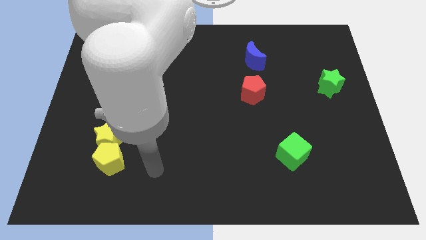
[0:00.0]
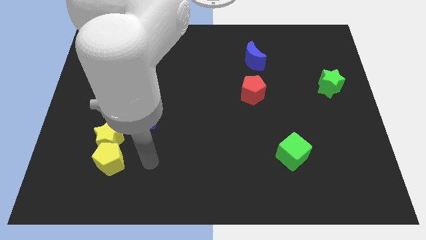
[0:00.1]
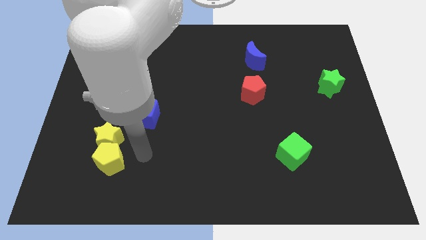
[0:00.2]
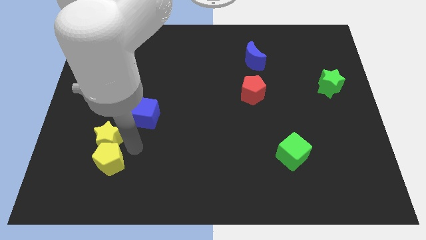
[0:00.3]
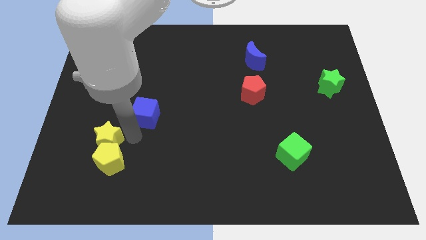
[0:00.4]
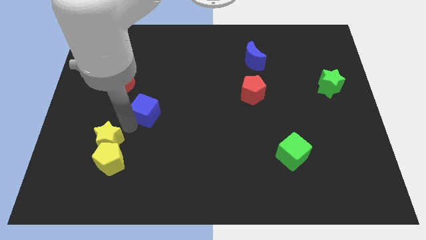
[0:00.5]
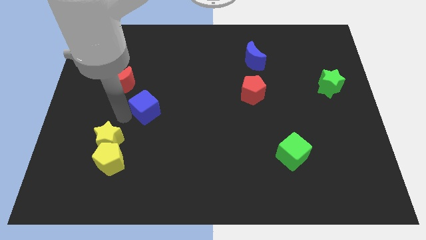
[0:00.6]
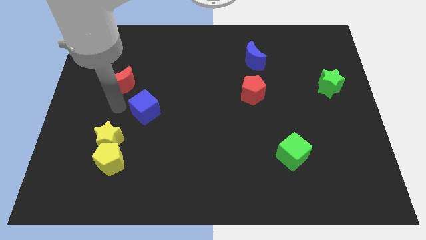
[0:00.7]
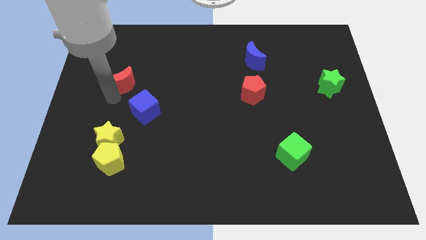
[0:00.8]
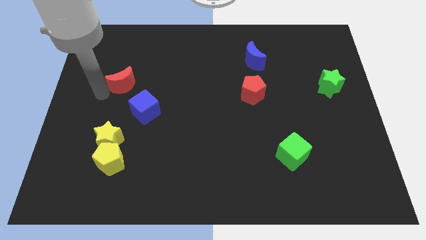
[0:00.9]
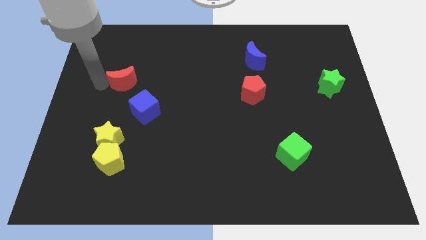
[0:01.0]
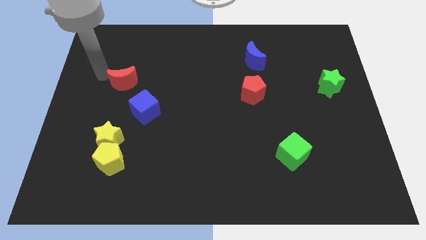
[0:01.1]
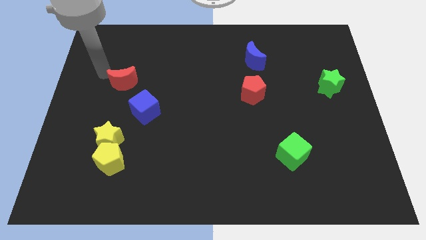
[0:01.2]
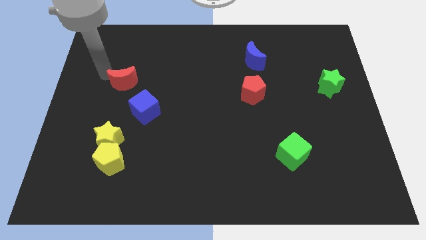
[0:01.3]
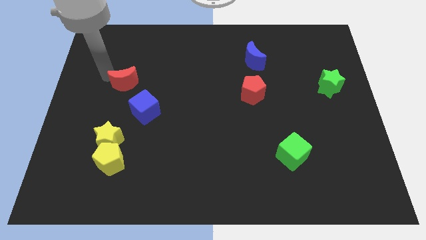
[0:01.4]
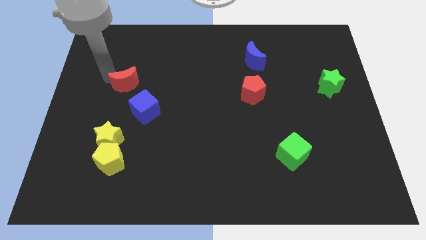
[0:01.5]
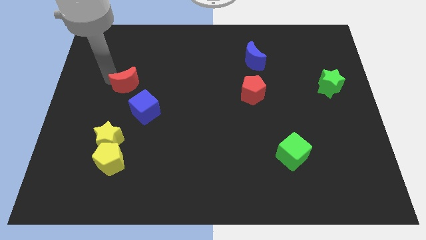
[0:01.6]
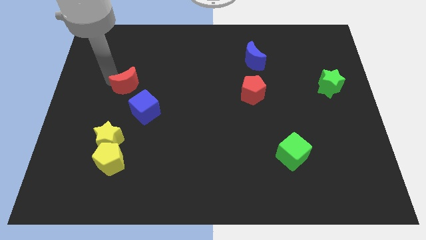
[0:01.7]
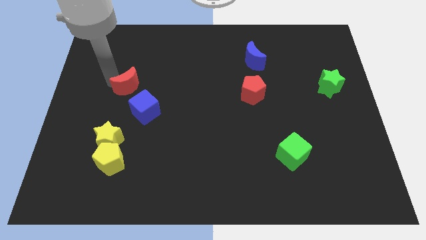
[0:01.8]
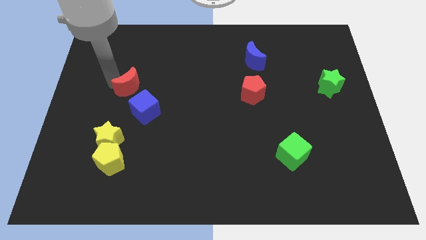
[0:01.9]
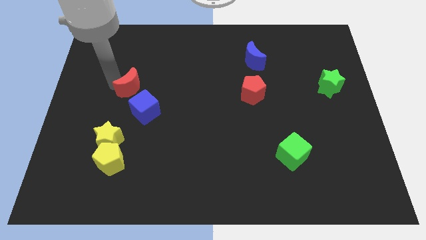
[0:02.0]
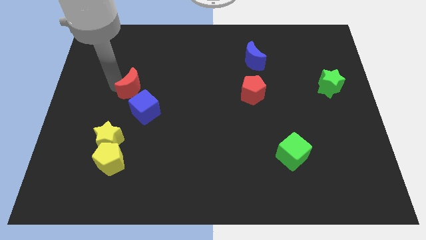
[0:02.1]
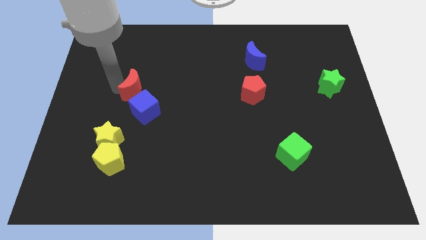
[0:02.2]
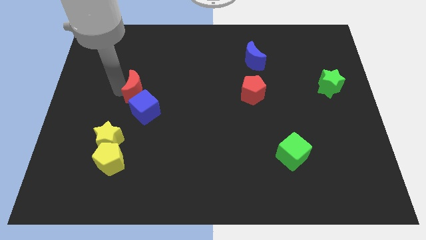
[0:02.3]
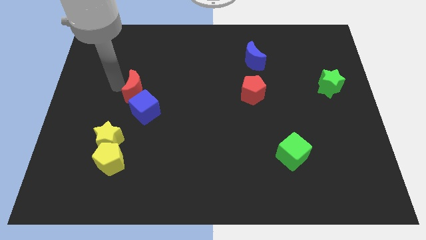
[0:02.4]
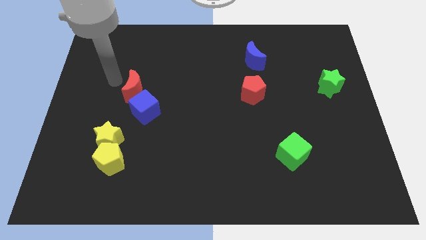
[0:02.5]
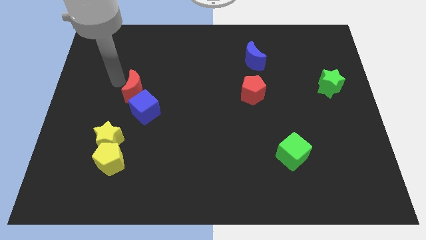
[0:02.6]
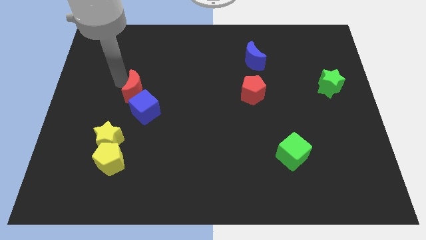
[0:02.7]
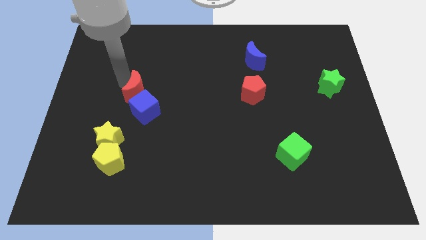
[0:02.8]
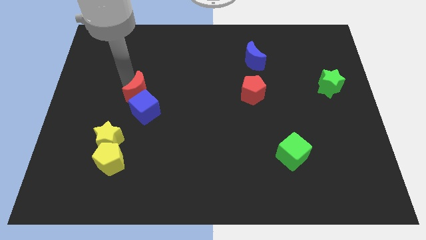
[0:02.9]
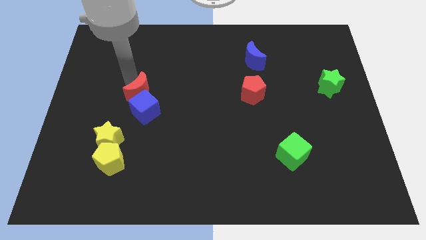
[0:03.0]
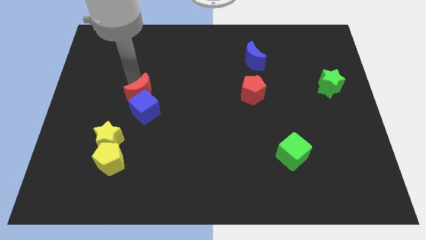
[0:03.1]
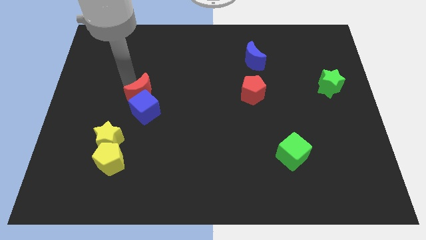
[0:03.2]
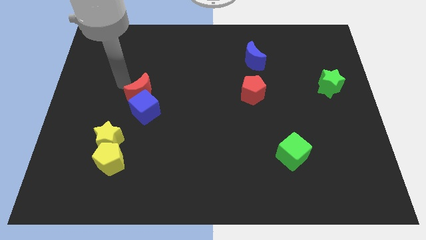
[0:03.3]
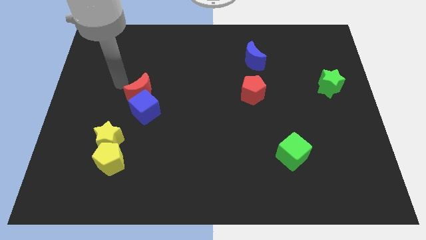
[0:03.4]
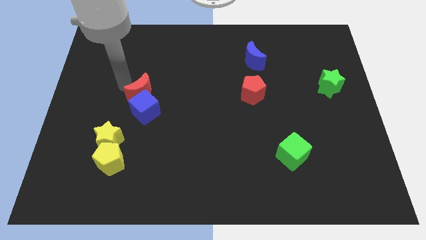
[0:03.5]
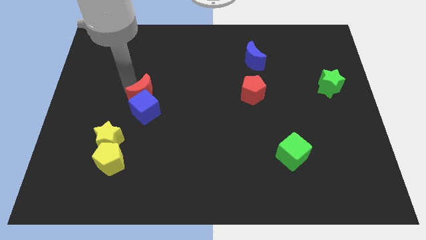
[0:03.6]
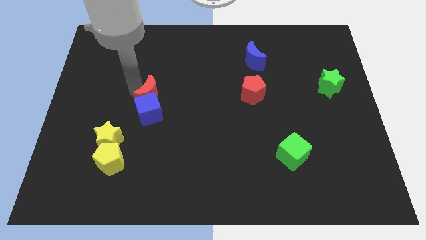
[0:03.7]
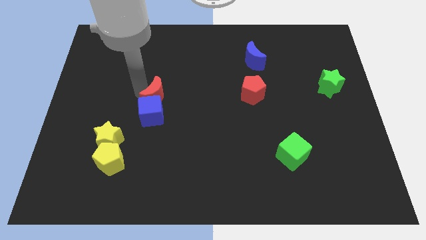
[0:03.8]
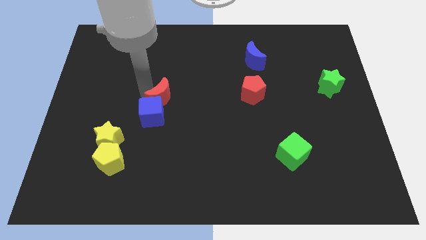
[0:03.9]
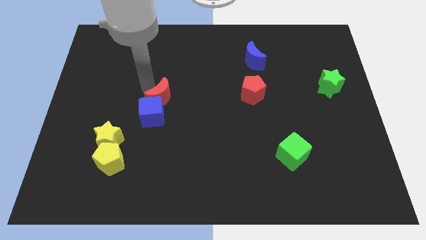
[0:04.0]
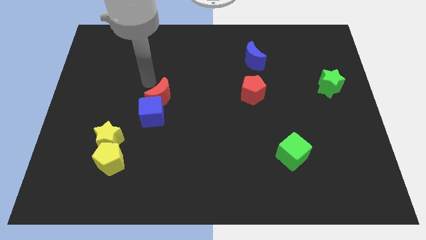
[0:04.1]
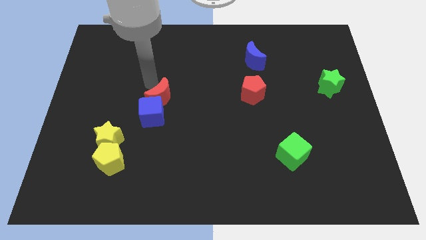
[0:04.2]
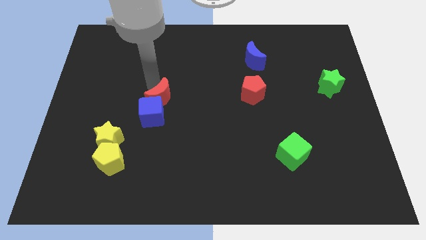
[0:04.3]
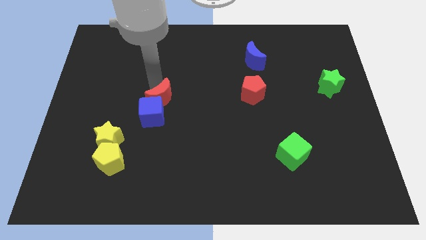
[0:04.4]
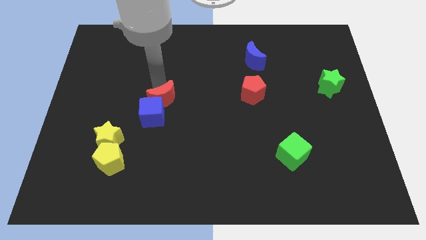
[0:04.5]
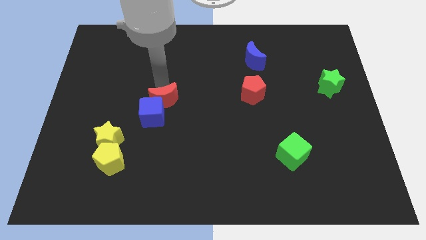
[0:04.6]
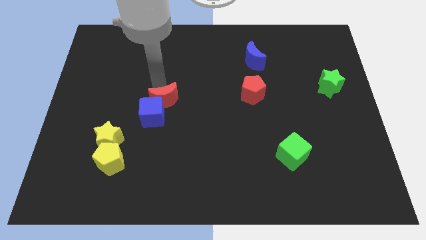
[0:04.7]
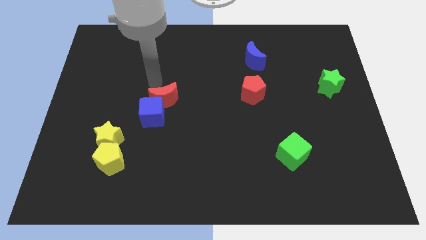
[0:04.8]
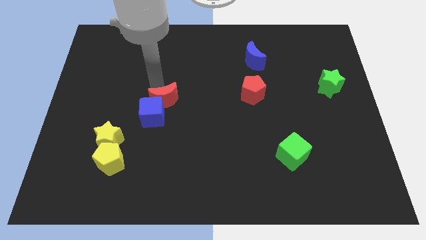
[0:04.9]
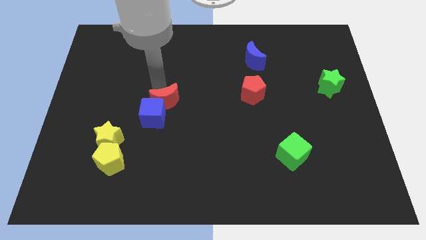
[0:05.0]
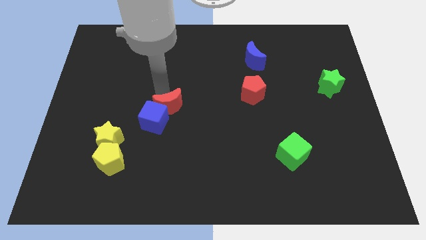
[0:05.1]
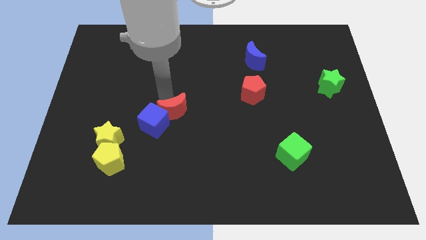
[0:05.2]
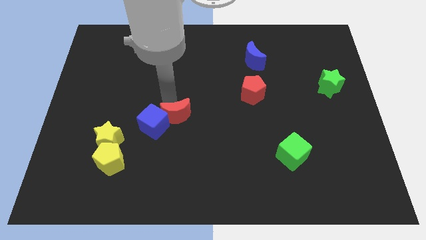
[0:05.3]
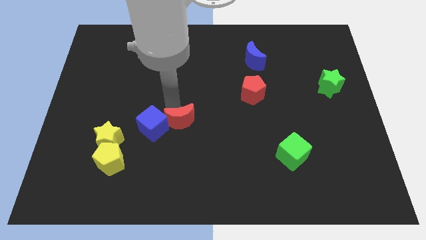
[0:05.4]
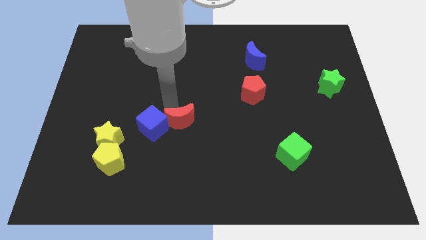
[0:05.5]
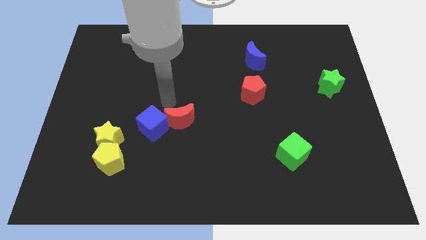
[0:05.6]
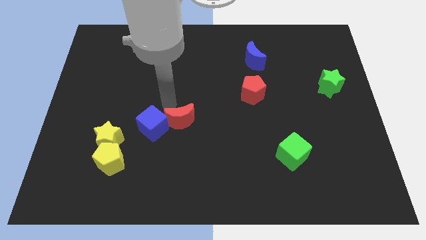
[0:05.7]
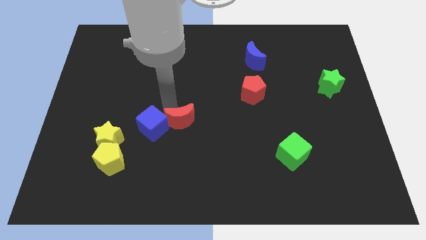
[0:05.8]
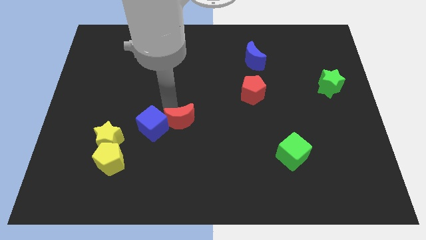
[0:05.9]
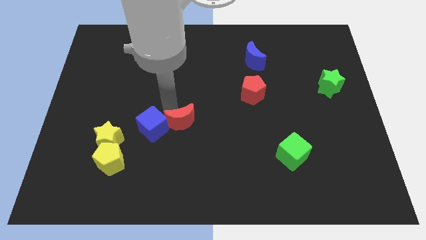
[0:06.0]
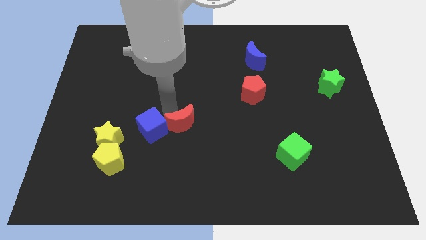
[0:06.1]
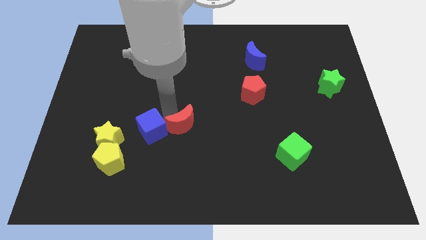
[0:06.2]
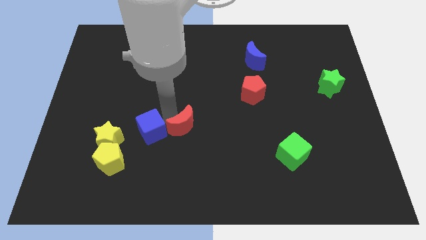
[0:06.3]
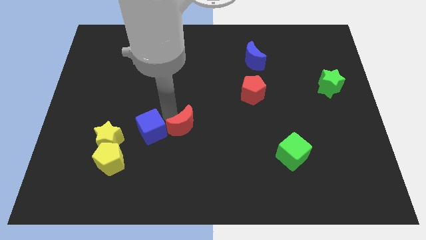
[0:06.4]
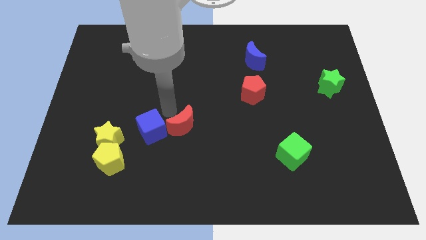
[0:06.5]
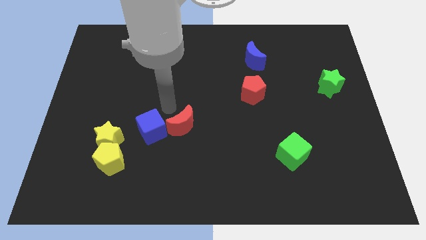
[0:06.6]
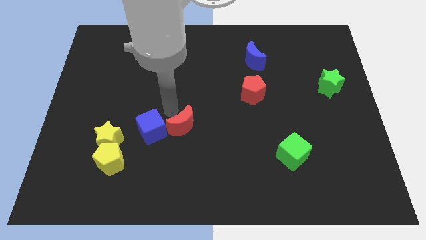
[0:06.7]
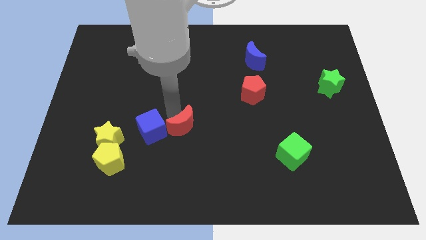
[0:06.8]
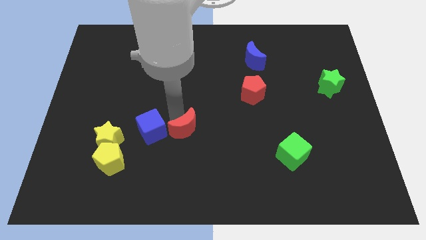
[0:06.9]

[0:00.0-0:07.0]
move the red moon diagonally down and to the right

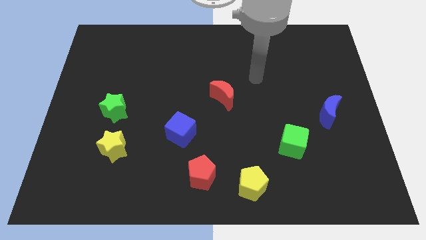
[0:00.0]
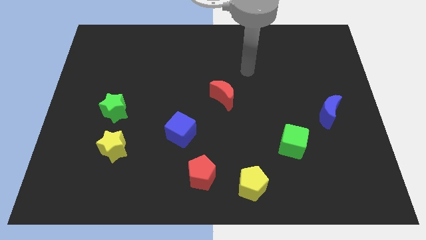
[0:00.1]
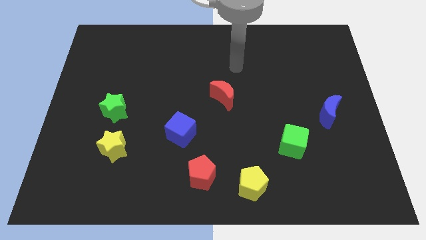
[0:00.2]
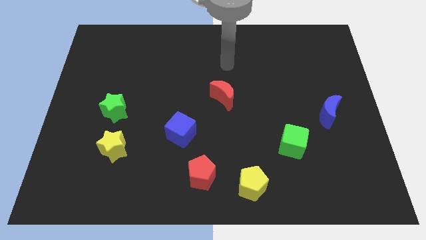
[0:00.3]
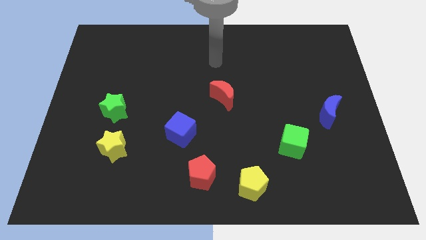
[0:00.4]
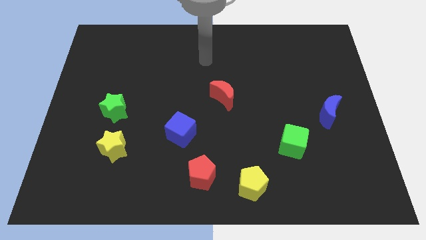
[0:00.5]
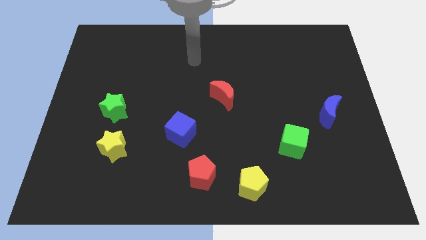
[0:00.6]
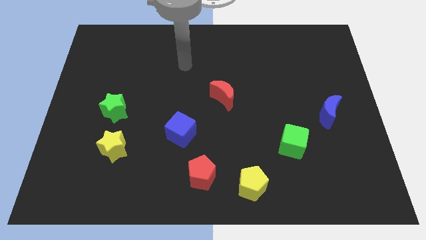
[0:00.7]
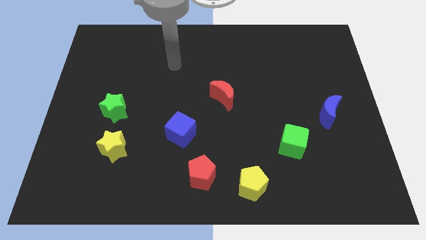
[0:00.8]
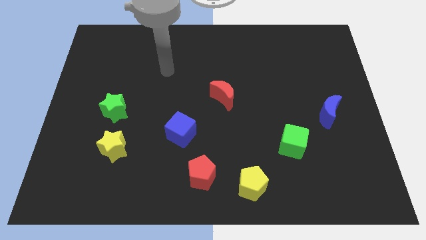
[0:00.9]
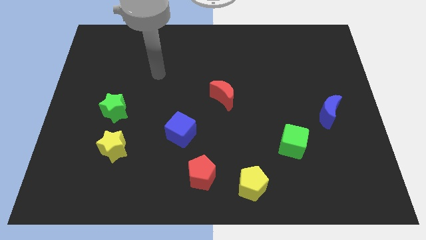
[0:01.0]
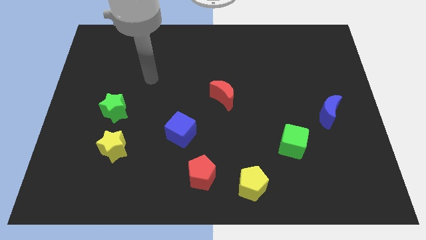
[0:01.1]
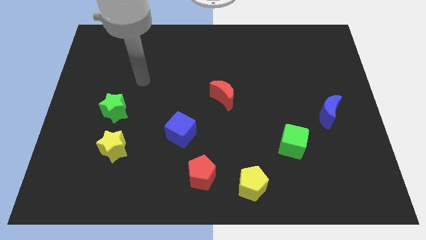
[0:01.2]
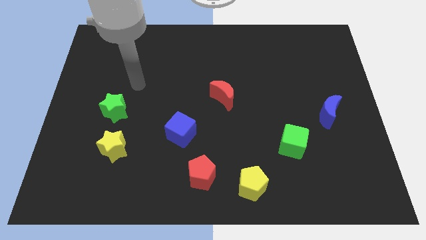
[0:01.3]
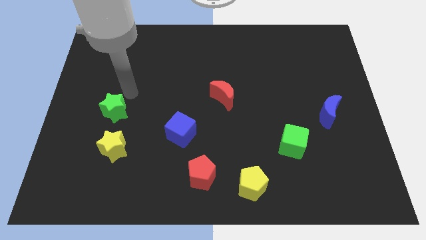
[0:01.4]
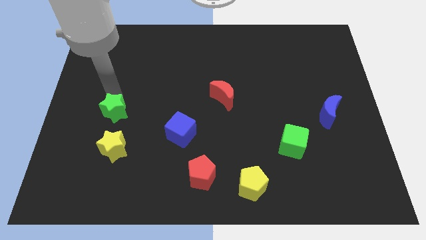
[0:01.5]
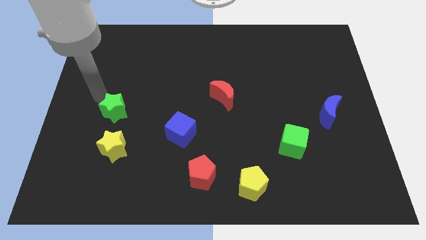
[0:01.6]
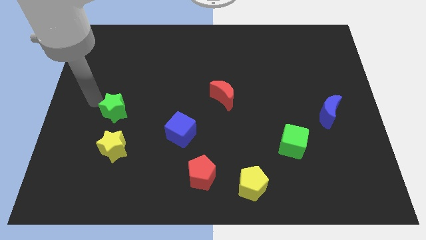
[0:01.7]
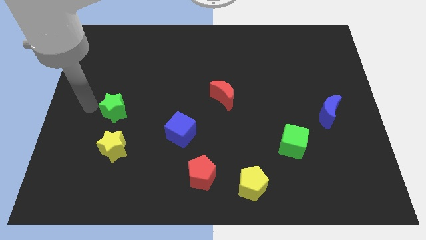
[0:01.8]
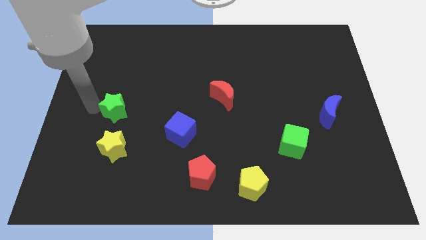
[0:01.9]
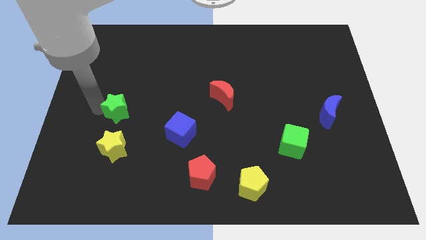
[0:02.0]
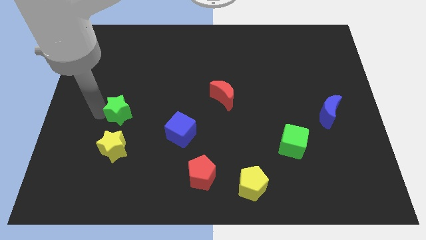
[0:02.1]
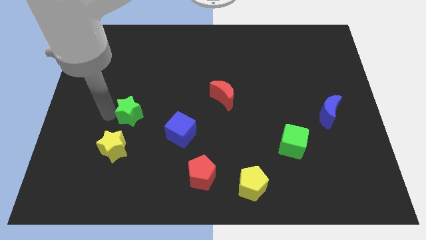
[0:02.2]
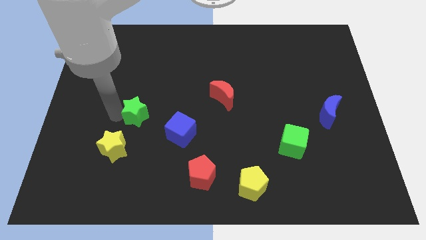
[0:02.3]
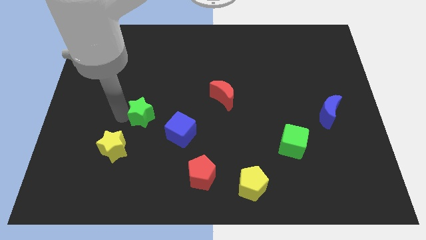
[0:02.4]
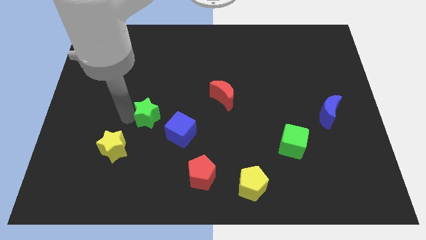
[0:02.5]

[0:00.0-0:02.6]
slide the green star to the right a little
